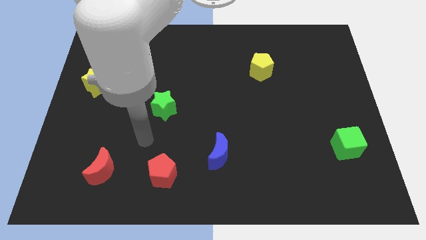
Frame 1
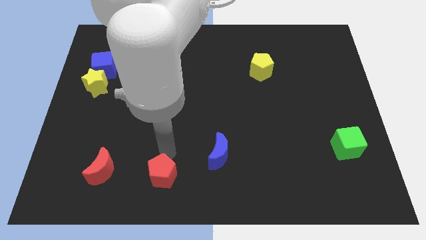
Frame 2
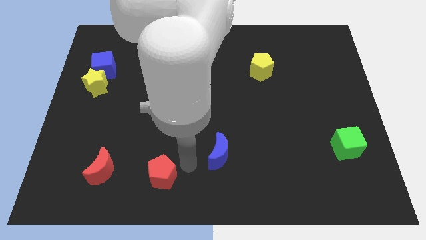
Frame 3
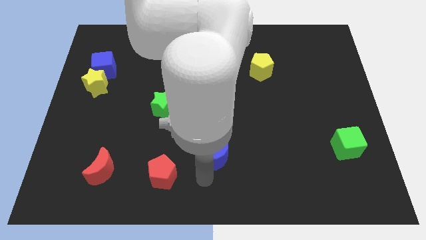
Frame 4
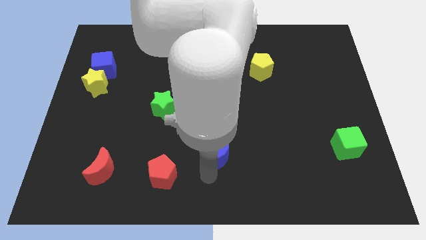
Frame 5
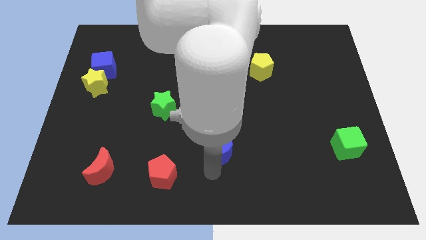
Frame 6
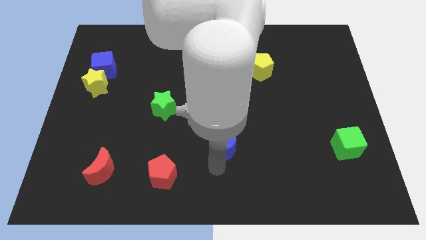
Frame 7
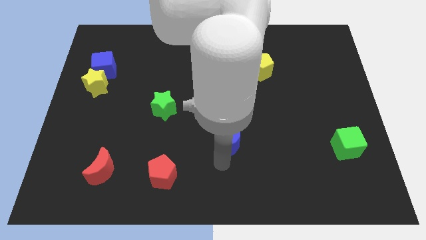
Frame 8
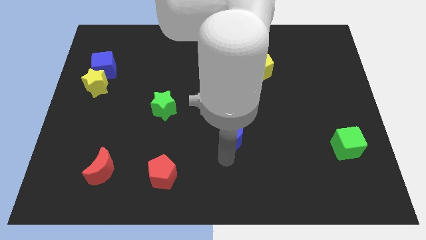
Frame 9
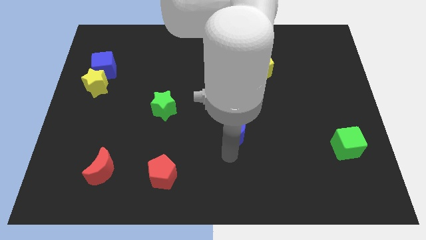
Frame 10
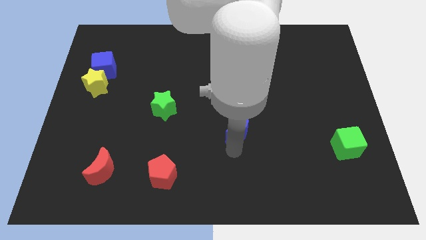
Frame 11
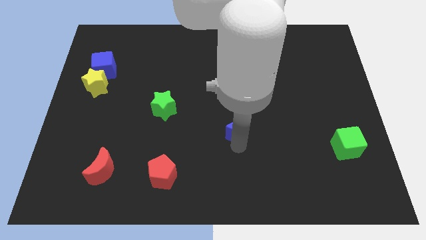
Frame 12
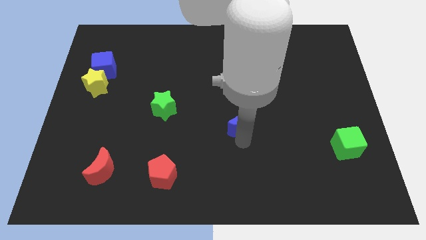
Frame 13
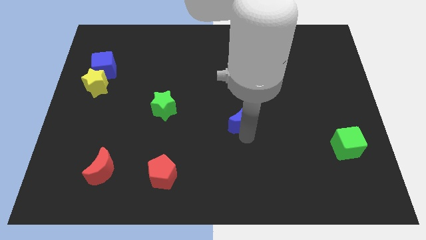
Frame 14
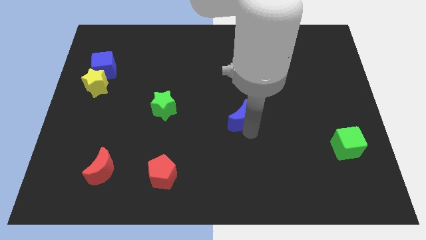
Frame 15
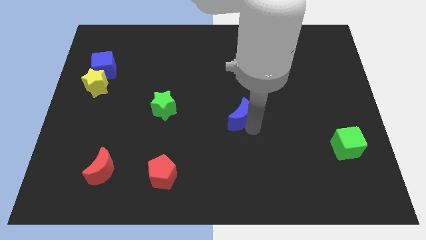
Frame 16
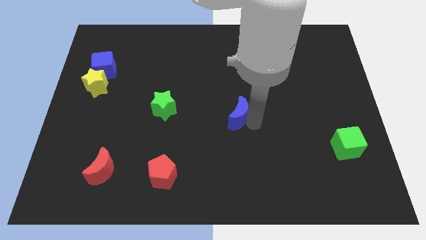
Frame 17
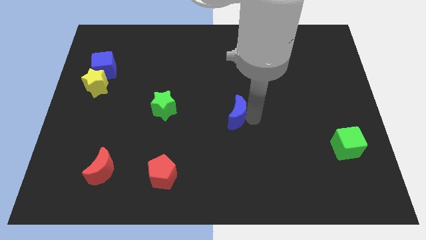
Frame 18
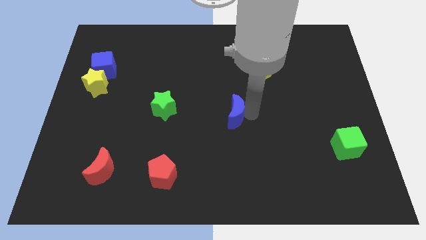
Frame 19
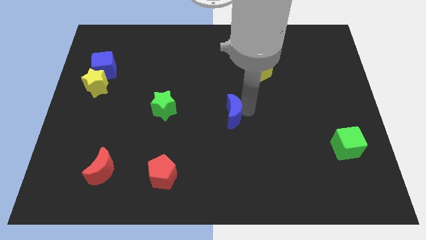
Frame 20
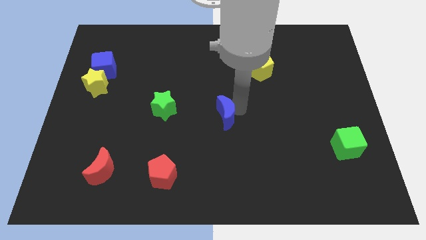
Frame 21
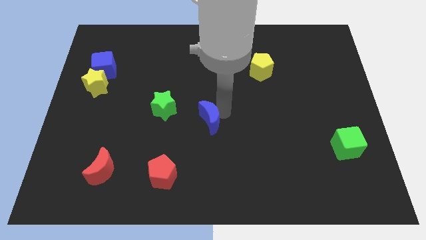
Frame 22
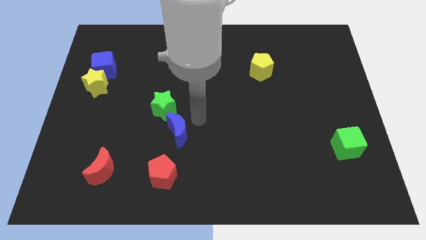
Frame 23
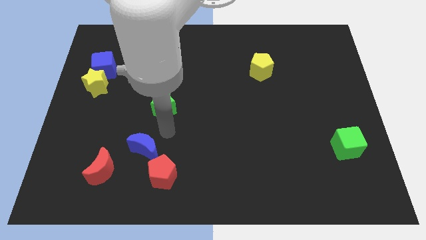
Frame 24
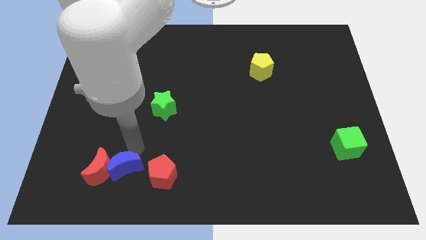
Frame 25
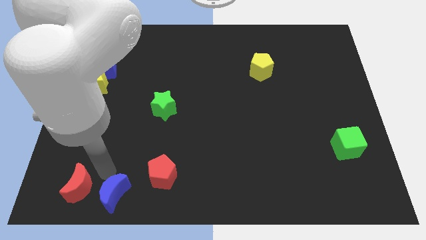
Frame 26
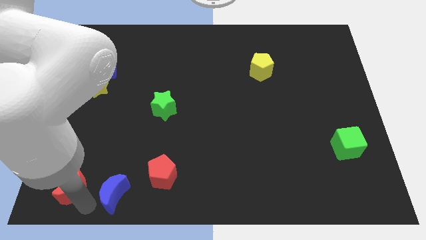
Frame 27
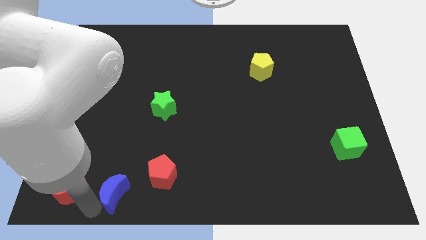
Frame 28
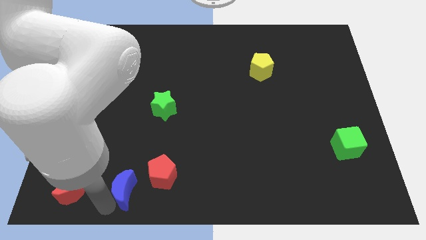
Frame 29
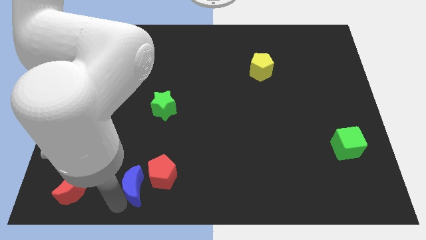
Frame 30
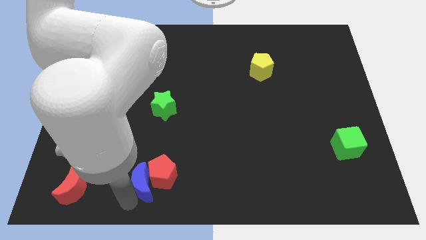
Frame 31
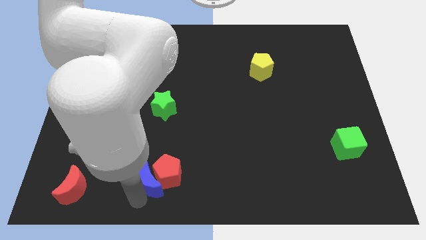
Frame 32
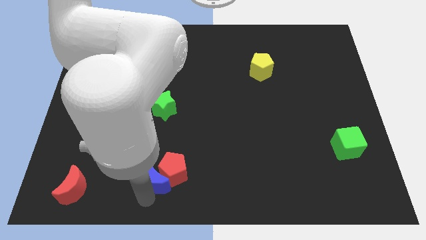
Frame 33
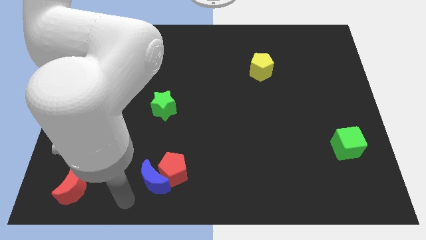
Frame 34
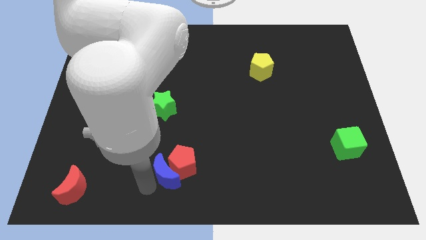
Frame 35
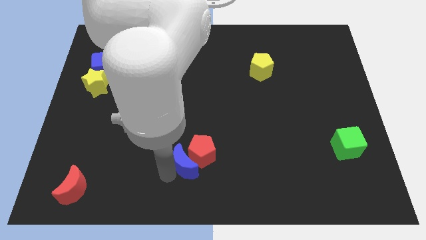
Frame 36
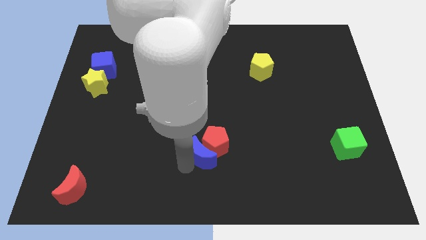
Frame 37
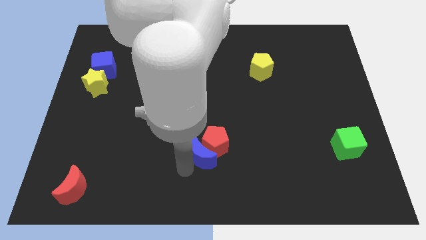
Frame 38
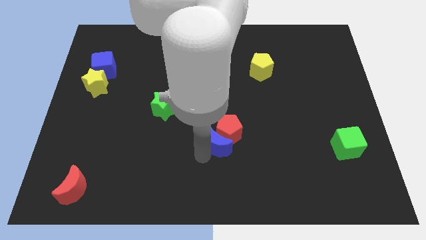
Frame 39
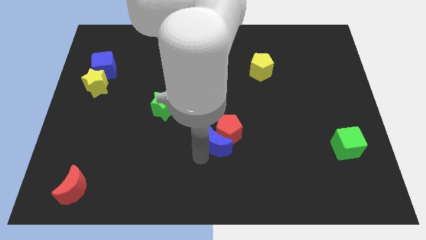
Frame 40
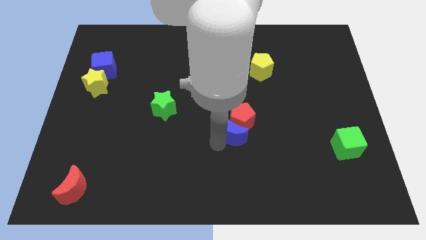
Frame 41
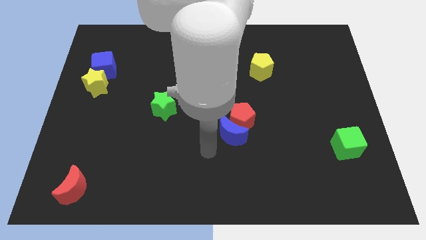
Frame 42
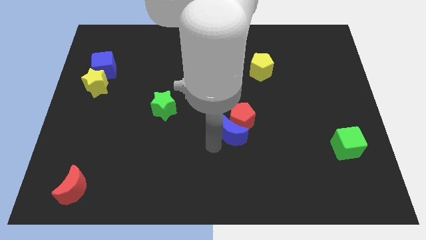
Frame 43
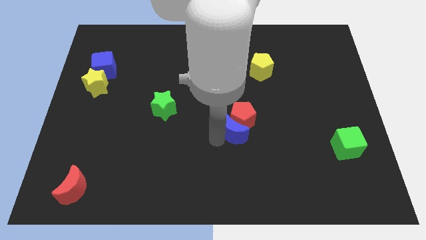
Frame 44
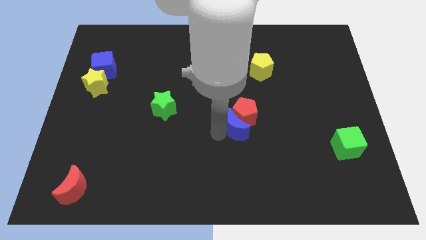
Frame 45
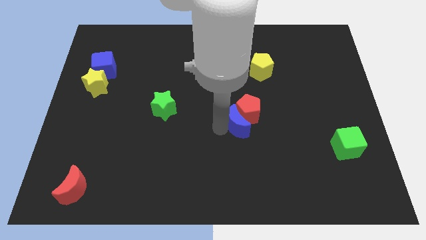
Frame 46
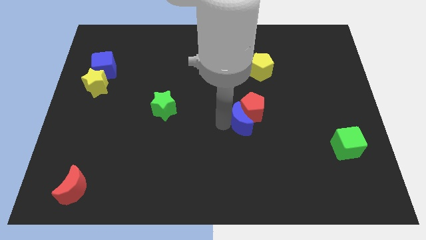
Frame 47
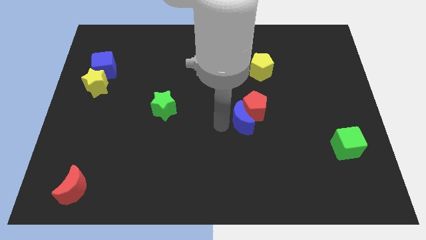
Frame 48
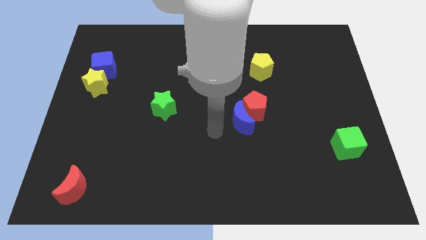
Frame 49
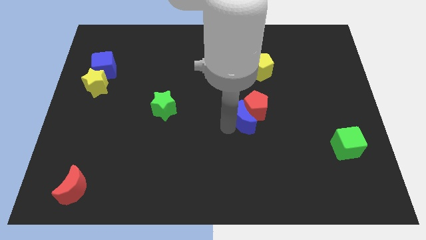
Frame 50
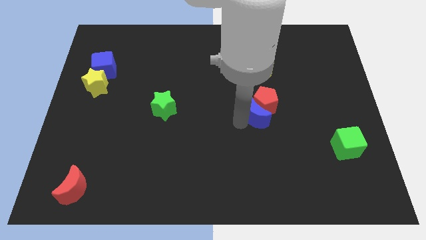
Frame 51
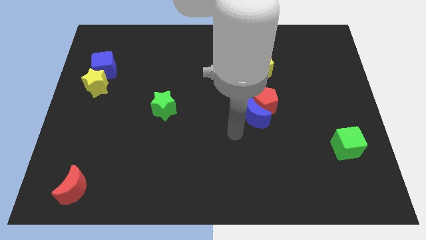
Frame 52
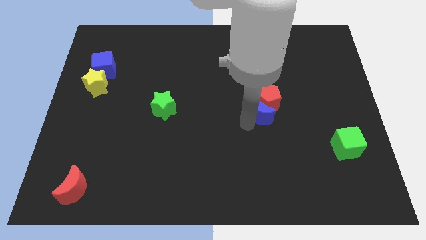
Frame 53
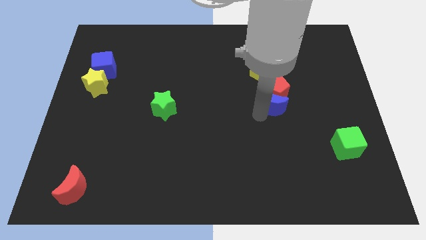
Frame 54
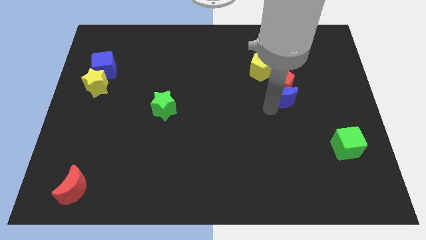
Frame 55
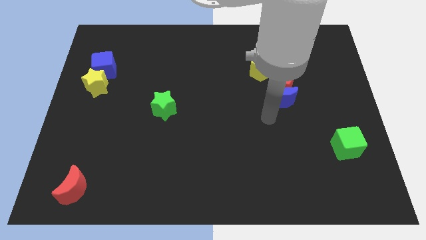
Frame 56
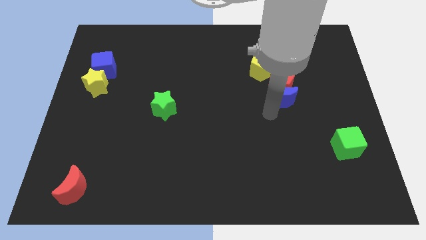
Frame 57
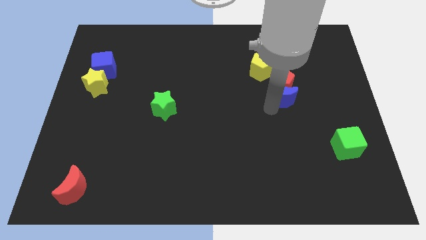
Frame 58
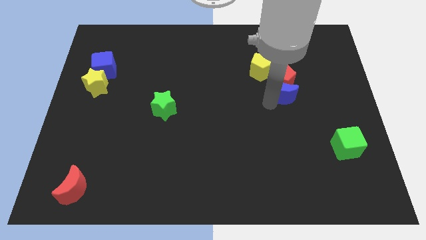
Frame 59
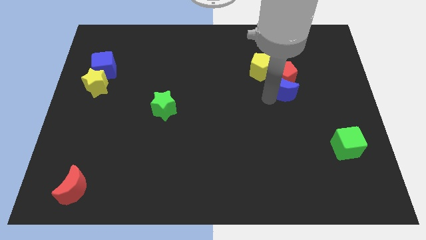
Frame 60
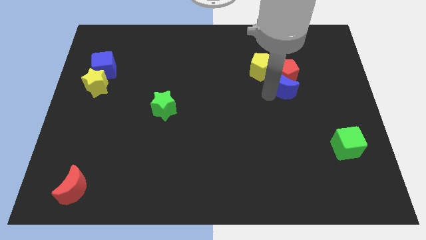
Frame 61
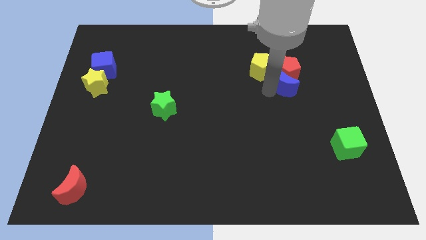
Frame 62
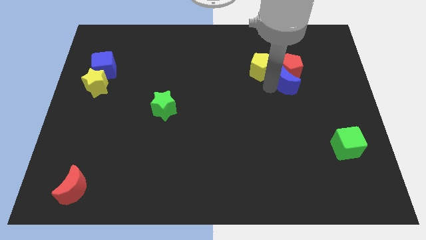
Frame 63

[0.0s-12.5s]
slide the blue moon to the right side of the yellow pentagon

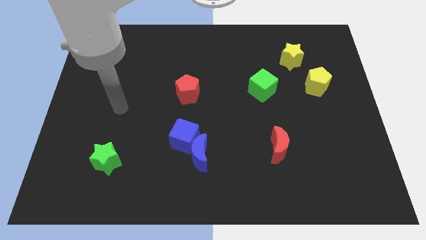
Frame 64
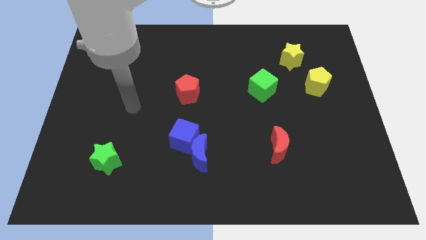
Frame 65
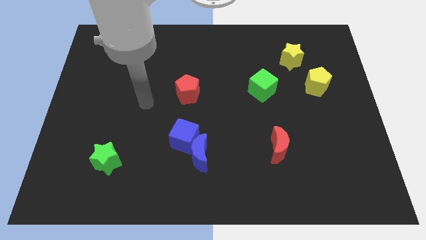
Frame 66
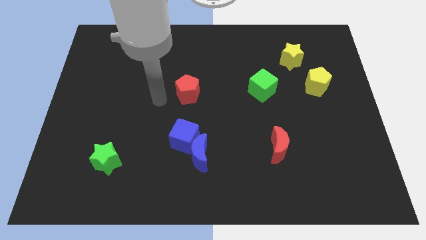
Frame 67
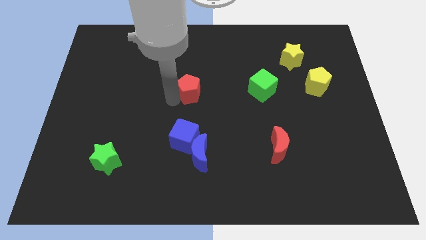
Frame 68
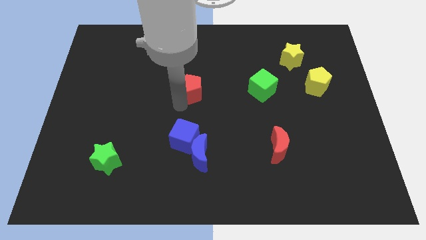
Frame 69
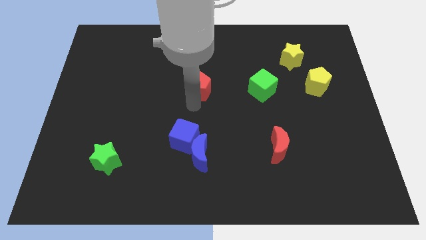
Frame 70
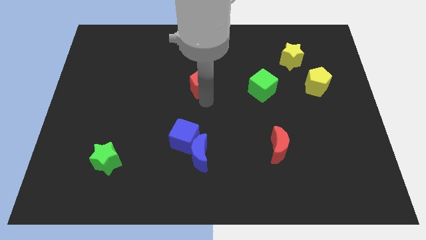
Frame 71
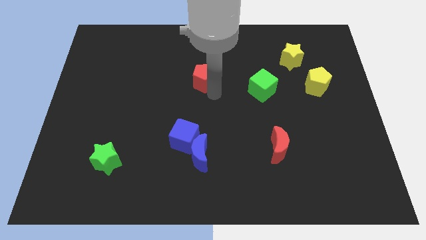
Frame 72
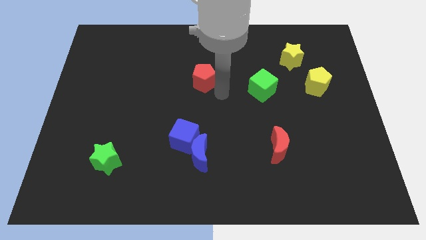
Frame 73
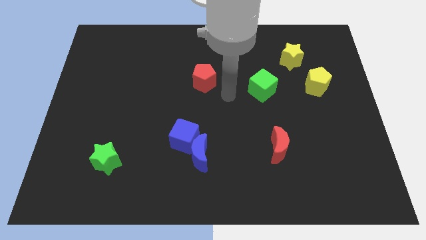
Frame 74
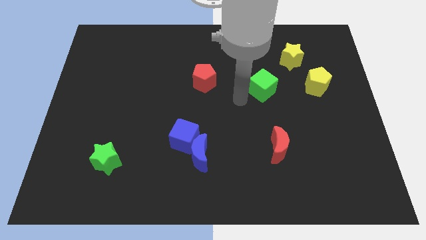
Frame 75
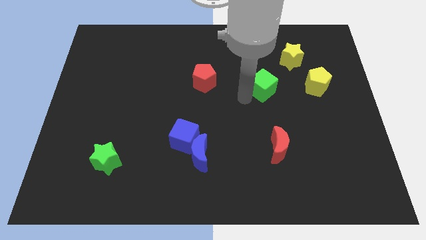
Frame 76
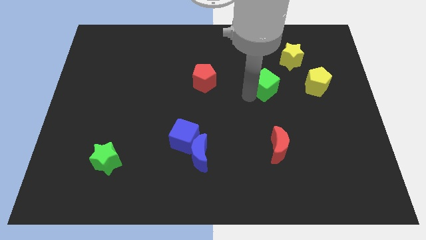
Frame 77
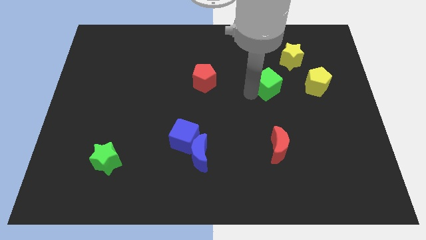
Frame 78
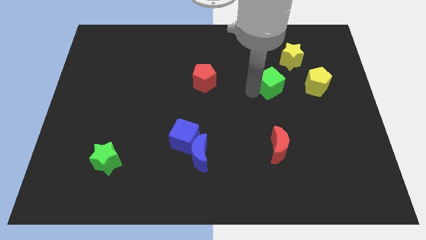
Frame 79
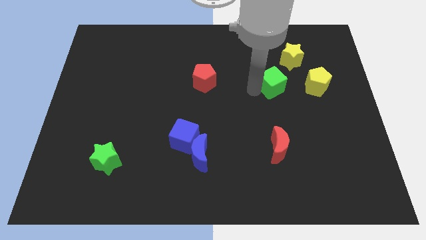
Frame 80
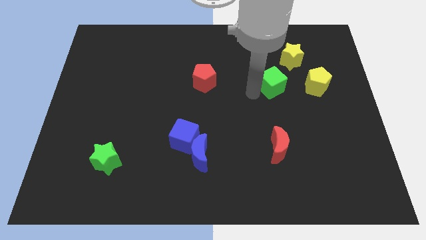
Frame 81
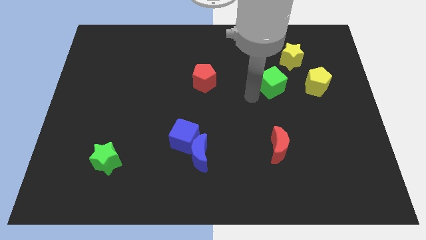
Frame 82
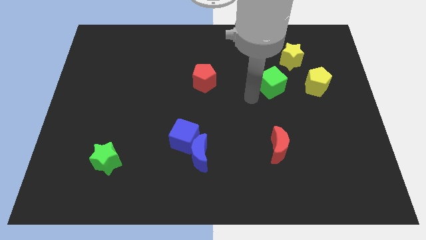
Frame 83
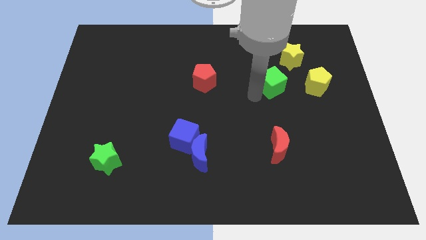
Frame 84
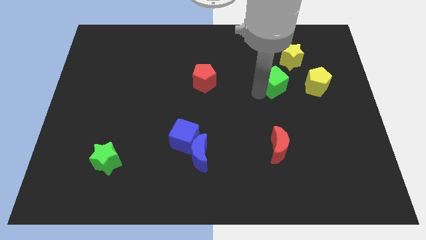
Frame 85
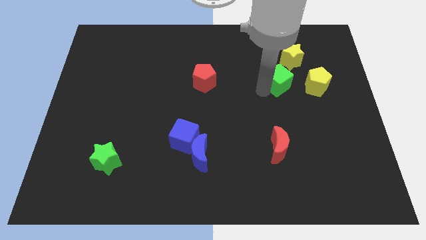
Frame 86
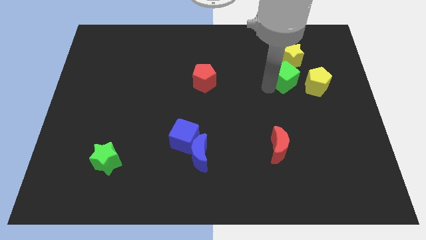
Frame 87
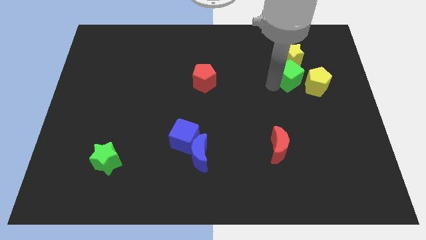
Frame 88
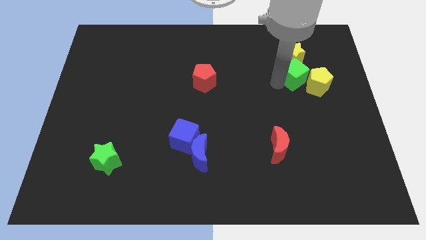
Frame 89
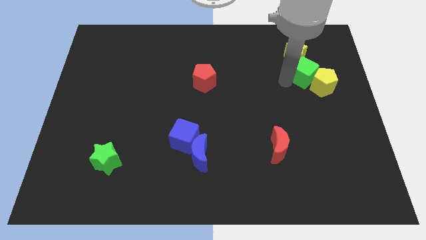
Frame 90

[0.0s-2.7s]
push the green cube to the top of the yellow pentagon
